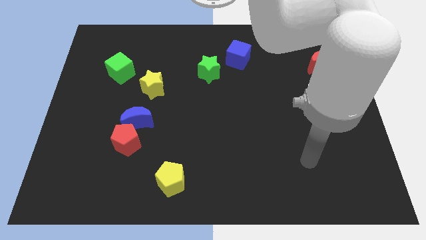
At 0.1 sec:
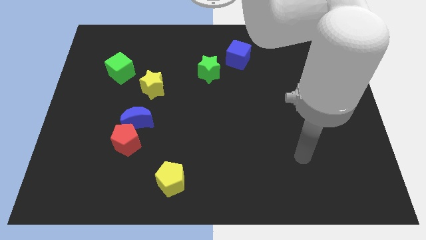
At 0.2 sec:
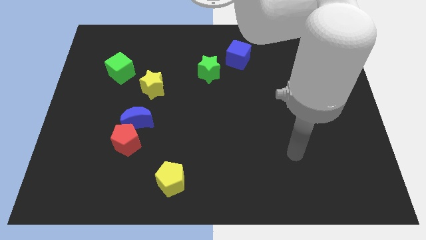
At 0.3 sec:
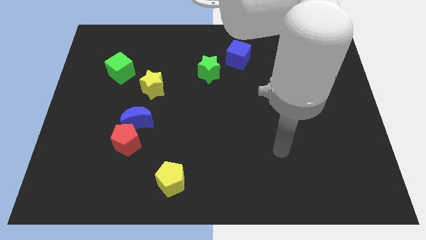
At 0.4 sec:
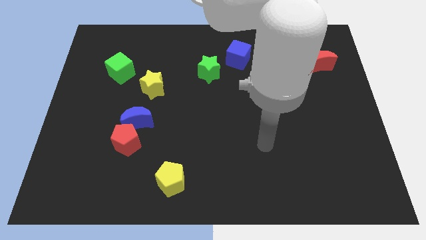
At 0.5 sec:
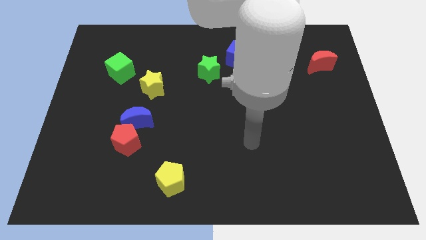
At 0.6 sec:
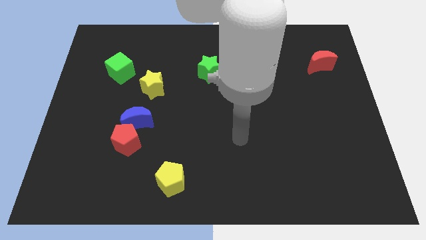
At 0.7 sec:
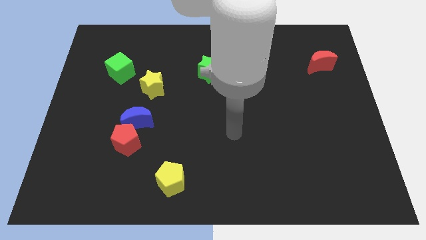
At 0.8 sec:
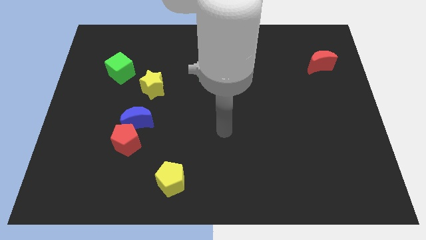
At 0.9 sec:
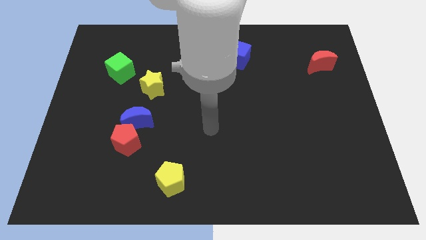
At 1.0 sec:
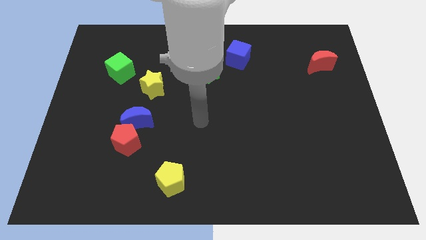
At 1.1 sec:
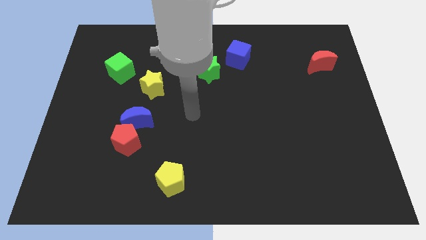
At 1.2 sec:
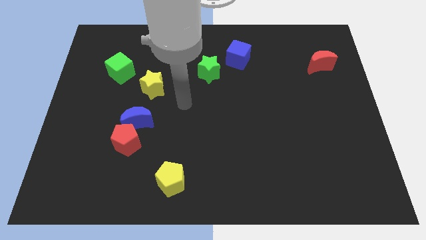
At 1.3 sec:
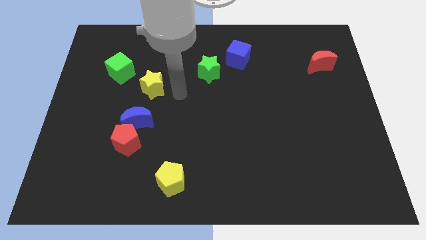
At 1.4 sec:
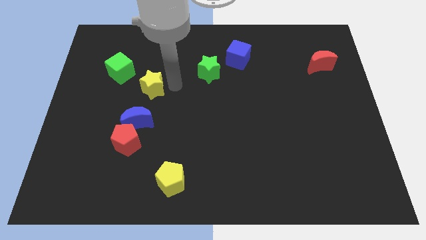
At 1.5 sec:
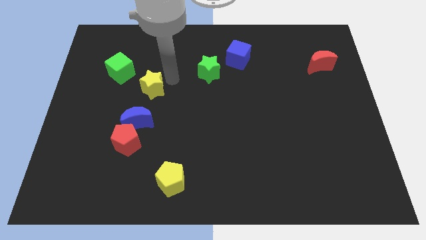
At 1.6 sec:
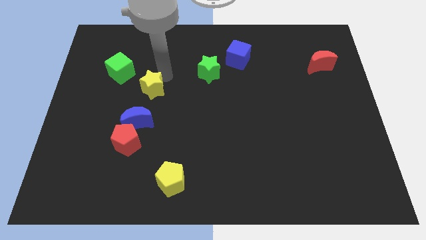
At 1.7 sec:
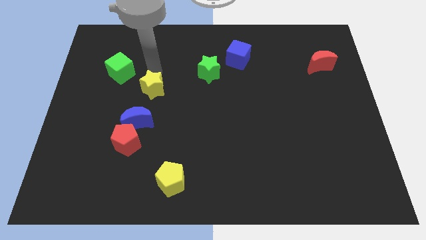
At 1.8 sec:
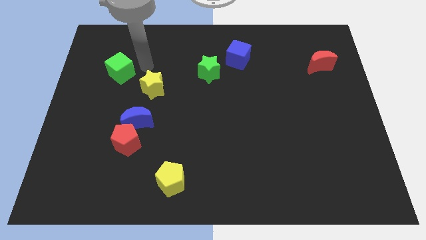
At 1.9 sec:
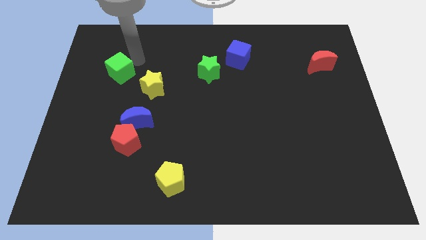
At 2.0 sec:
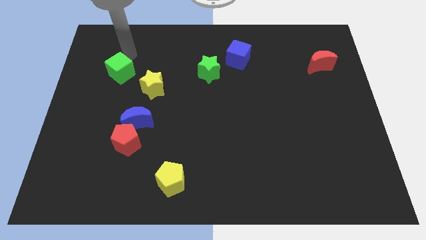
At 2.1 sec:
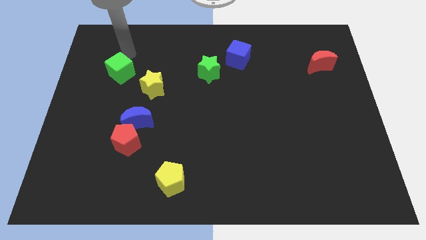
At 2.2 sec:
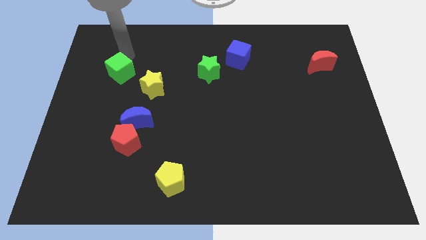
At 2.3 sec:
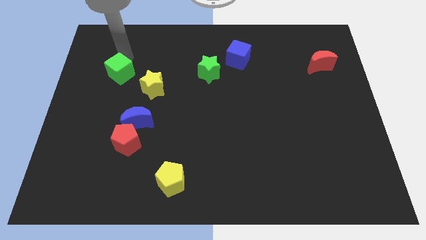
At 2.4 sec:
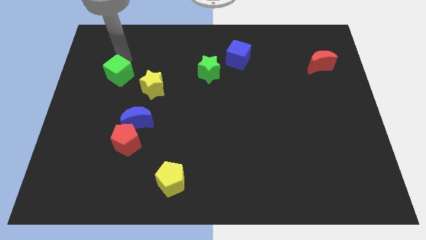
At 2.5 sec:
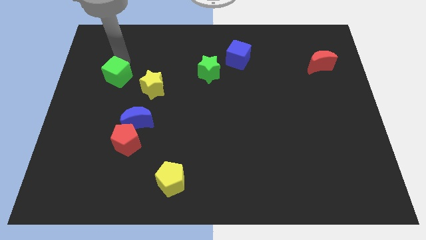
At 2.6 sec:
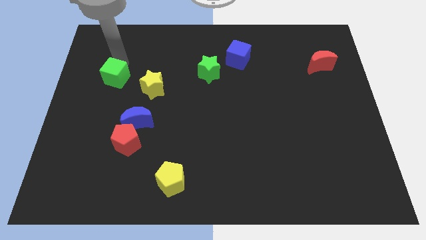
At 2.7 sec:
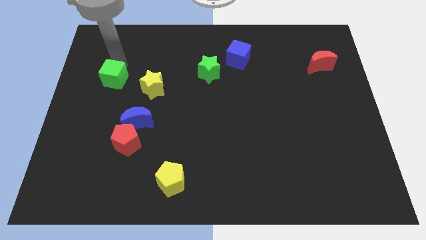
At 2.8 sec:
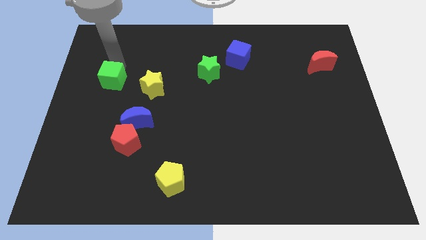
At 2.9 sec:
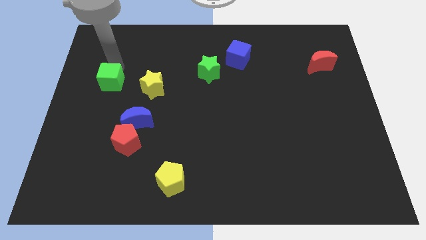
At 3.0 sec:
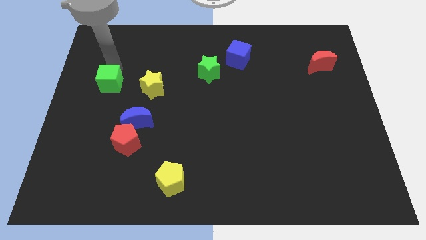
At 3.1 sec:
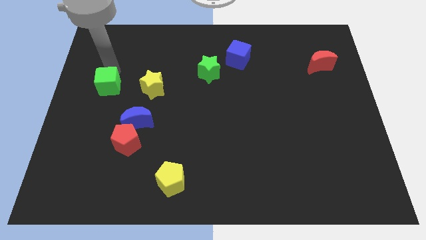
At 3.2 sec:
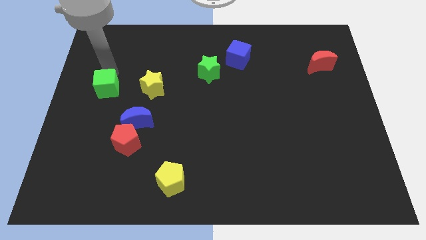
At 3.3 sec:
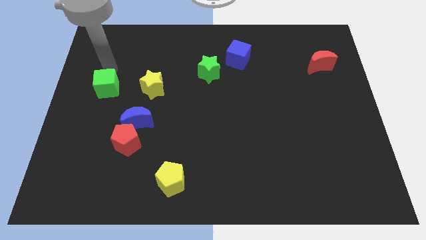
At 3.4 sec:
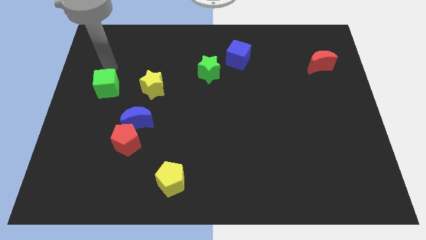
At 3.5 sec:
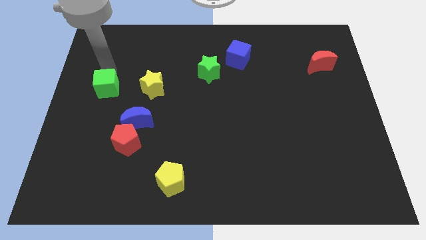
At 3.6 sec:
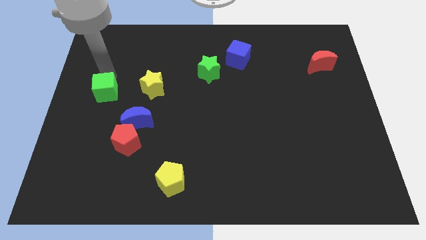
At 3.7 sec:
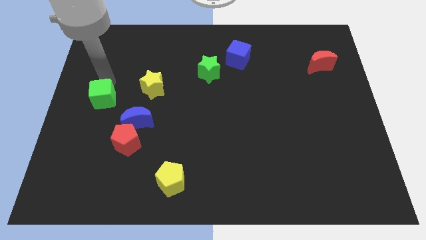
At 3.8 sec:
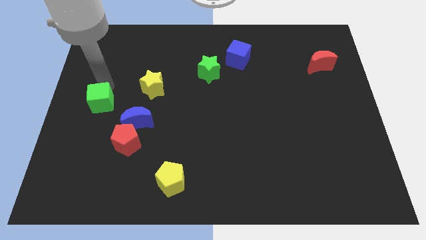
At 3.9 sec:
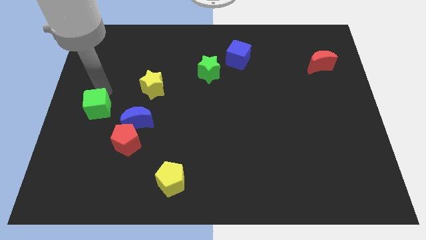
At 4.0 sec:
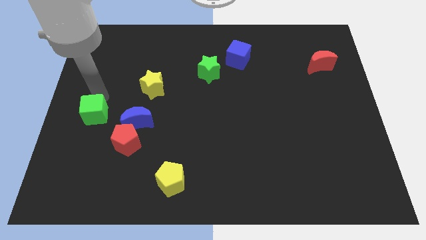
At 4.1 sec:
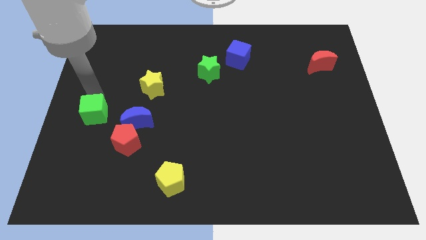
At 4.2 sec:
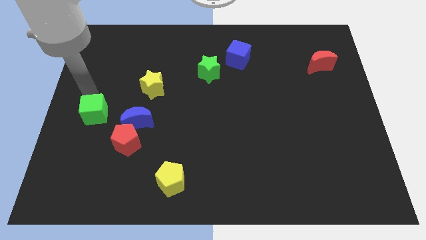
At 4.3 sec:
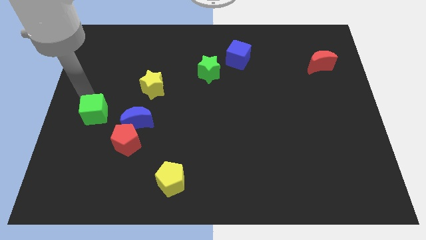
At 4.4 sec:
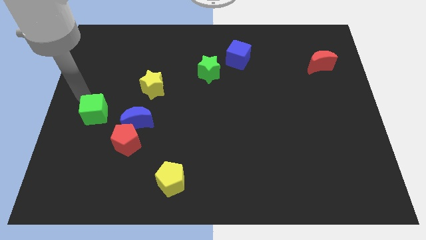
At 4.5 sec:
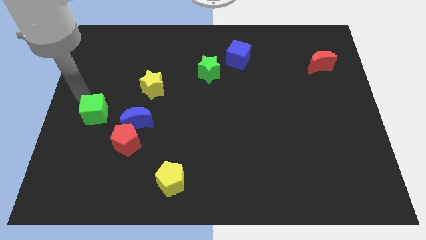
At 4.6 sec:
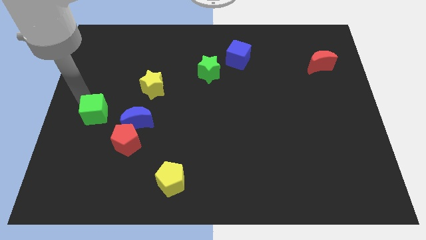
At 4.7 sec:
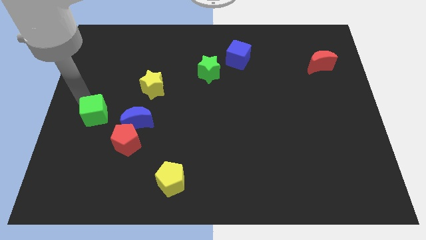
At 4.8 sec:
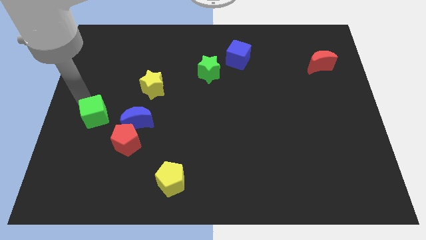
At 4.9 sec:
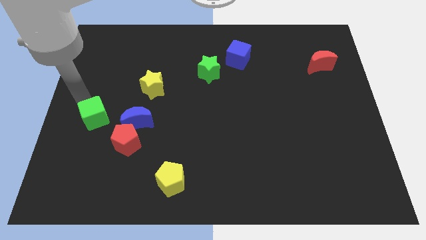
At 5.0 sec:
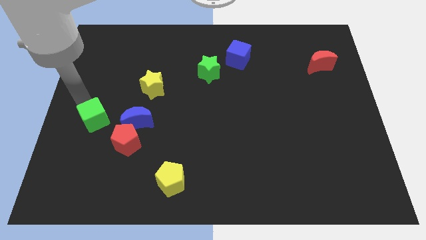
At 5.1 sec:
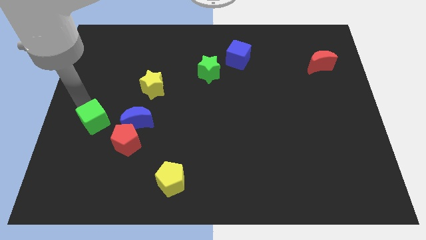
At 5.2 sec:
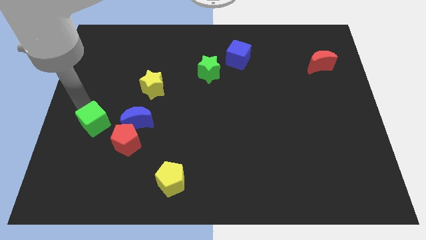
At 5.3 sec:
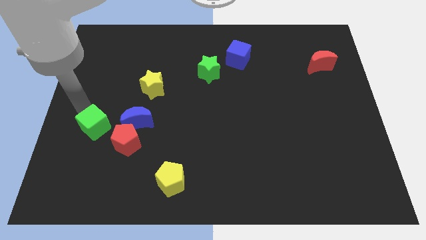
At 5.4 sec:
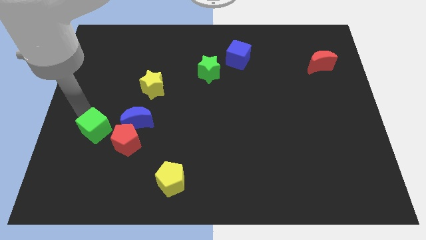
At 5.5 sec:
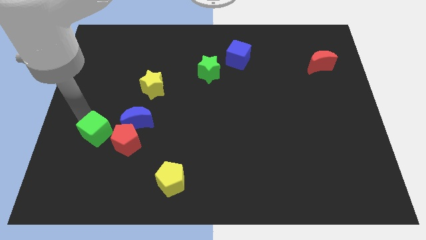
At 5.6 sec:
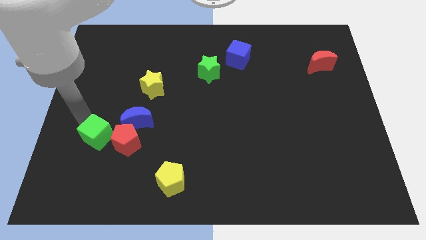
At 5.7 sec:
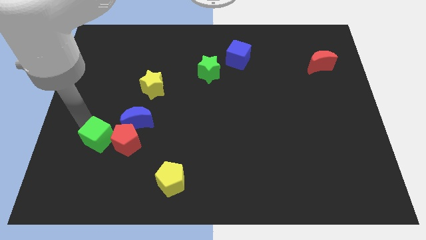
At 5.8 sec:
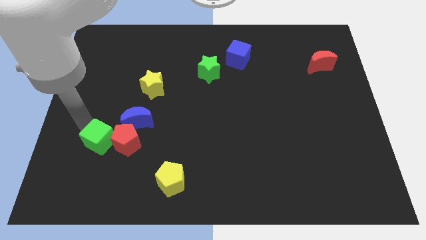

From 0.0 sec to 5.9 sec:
put the green cube close to the red pentagon

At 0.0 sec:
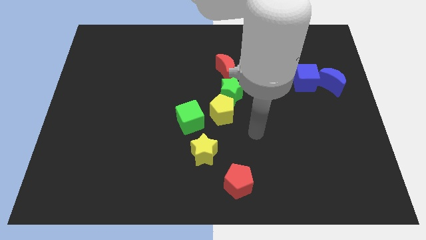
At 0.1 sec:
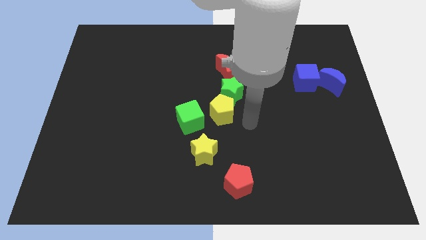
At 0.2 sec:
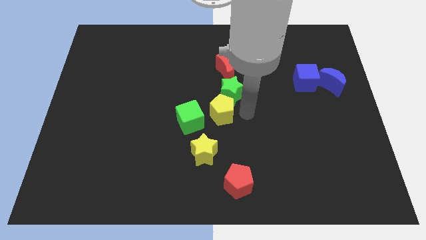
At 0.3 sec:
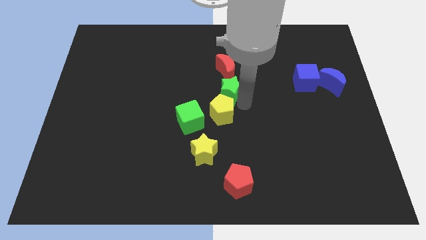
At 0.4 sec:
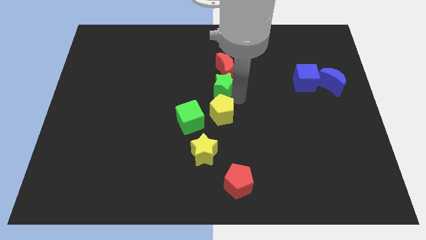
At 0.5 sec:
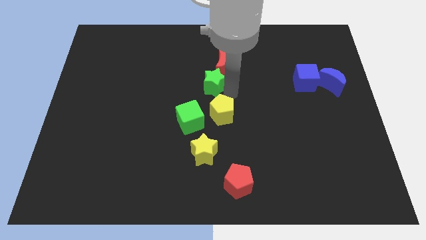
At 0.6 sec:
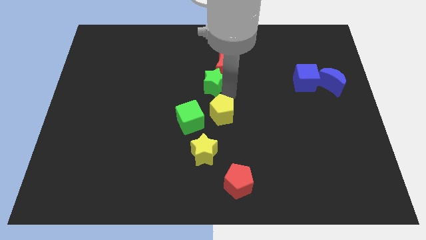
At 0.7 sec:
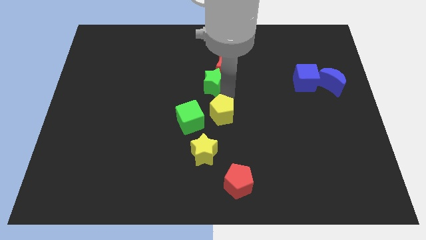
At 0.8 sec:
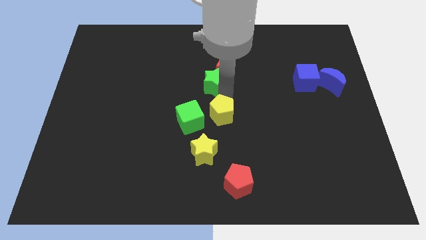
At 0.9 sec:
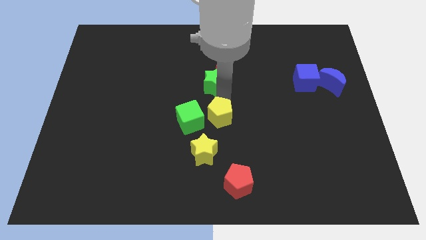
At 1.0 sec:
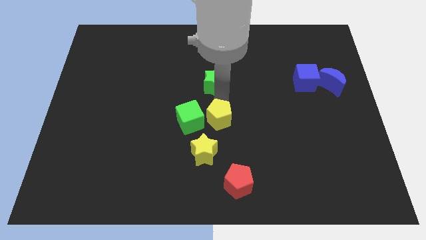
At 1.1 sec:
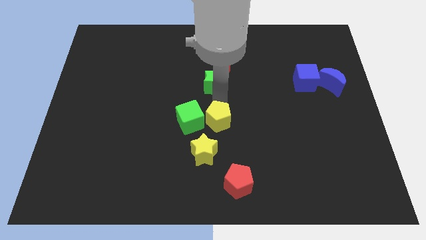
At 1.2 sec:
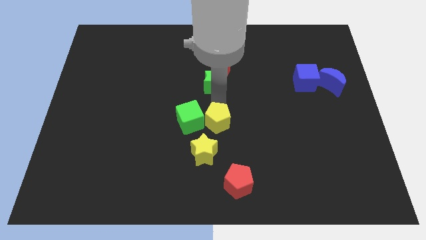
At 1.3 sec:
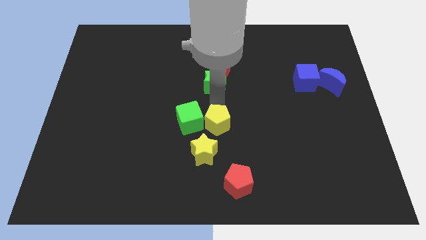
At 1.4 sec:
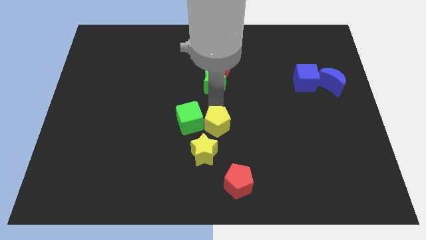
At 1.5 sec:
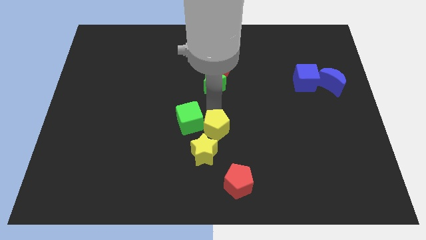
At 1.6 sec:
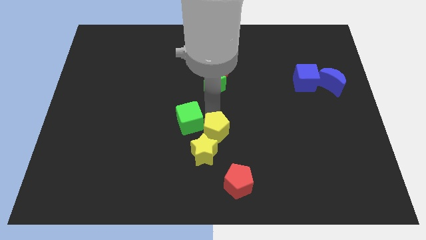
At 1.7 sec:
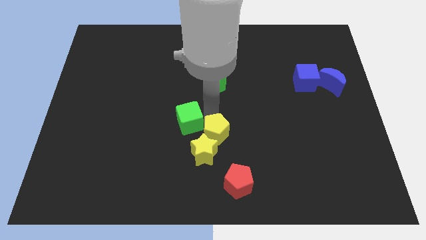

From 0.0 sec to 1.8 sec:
move the yellow pentagon close to the yellow star
